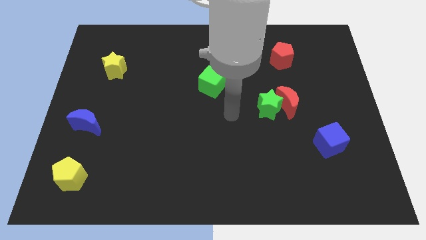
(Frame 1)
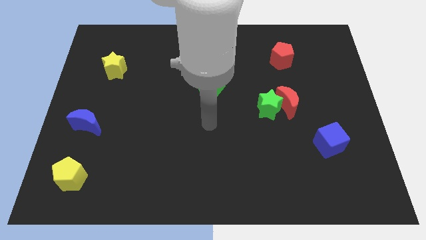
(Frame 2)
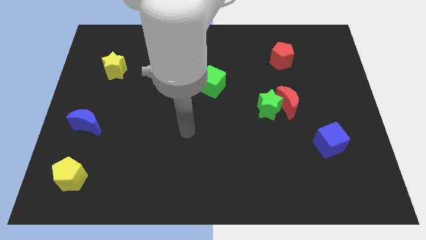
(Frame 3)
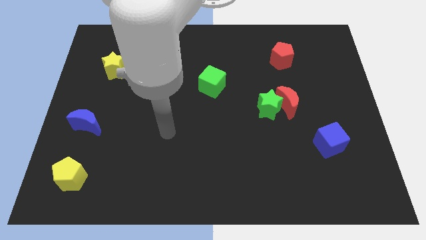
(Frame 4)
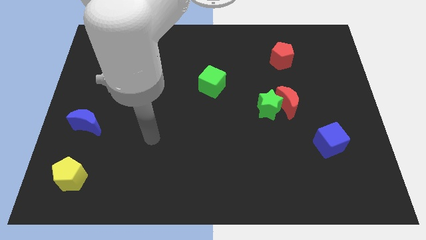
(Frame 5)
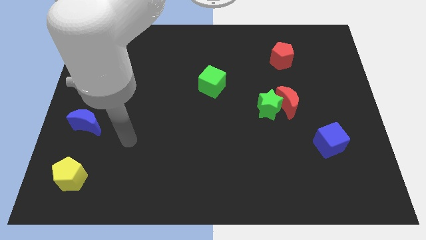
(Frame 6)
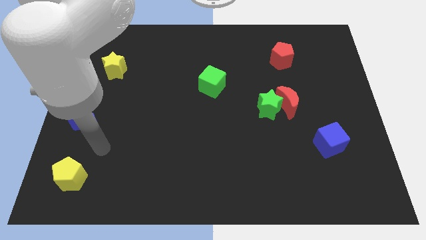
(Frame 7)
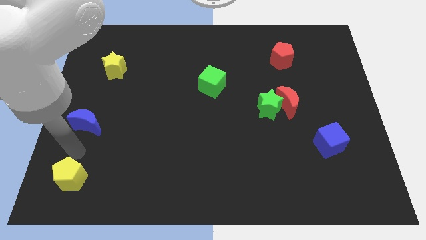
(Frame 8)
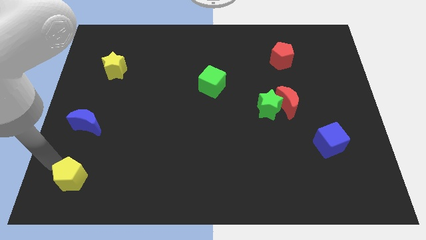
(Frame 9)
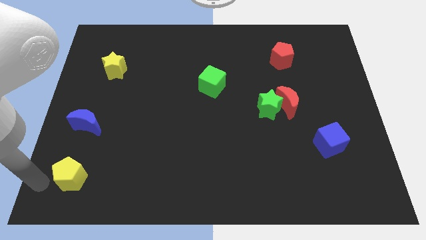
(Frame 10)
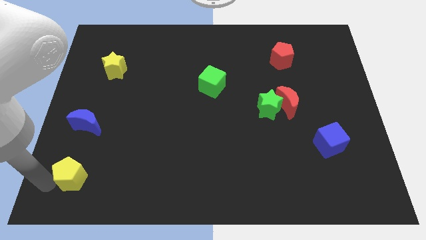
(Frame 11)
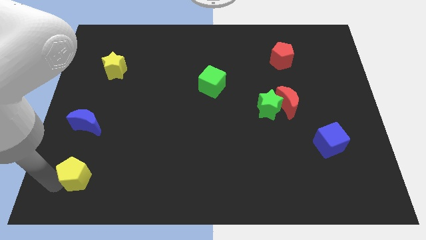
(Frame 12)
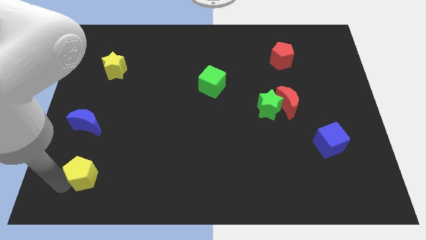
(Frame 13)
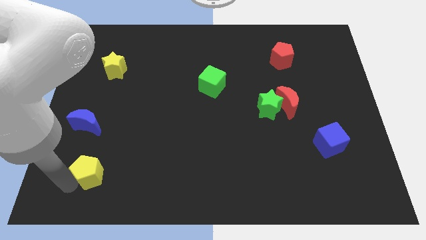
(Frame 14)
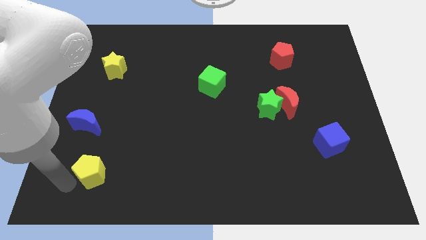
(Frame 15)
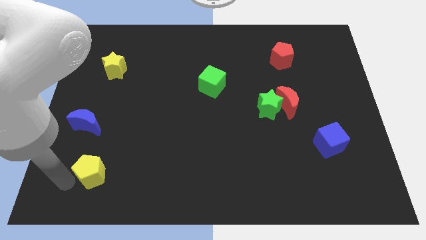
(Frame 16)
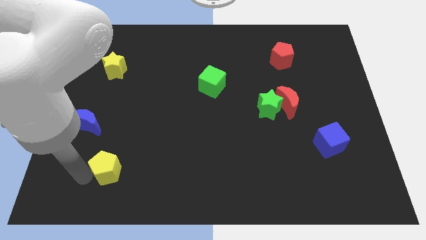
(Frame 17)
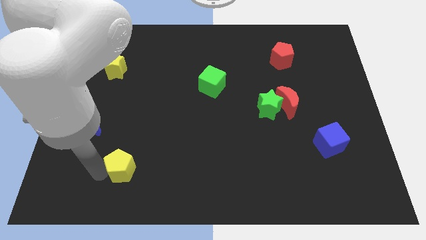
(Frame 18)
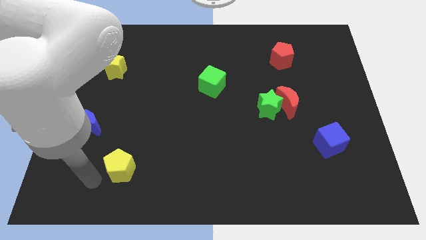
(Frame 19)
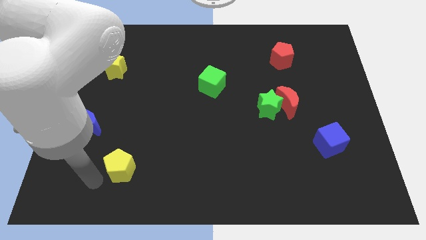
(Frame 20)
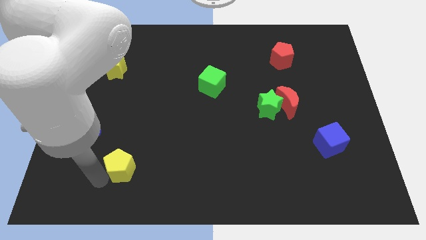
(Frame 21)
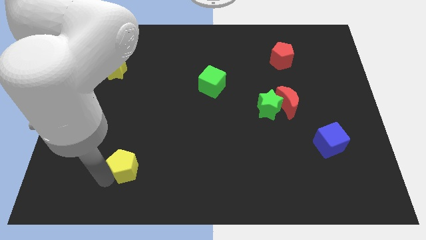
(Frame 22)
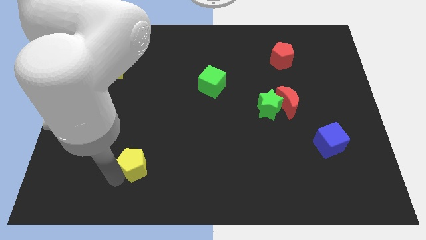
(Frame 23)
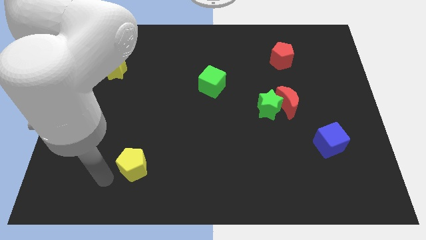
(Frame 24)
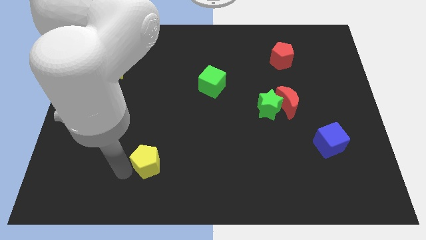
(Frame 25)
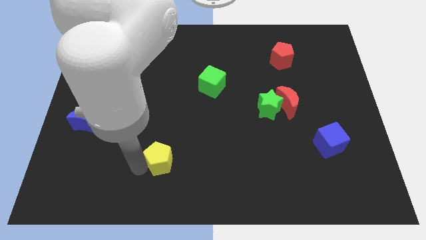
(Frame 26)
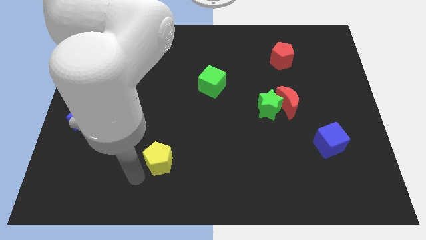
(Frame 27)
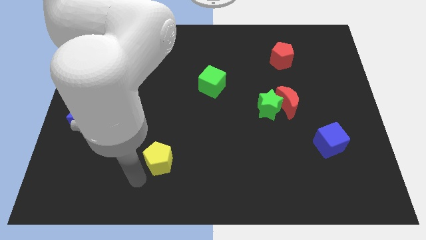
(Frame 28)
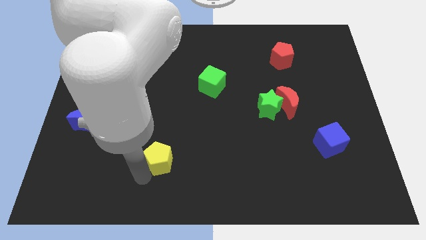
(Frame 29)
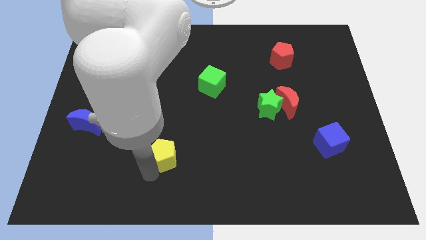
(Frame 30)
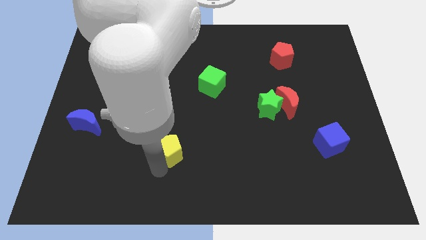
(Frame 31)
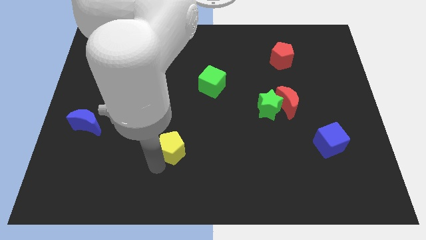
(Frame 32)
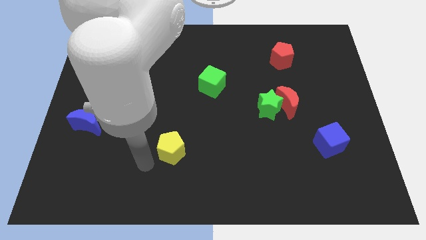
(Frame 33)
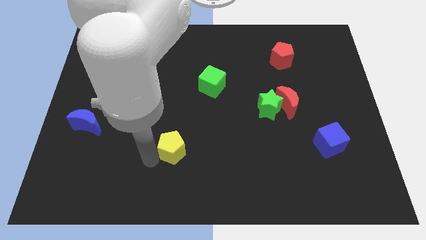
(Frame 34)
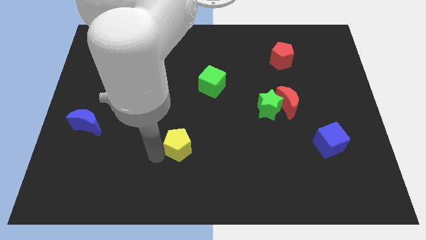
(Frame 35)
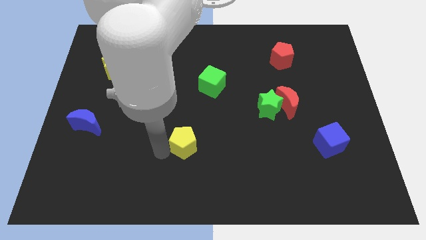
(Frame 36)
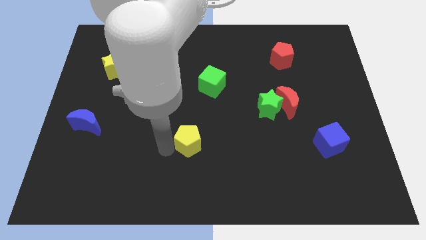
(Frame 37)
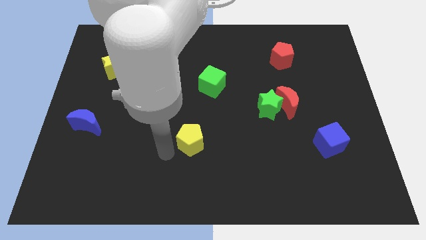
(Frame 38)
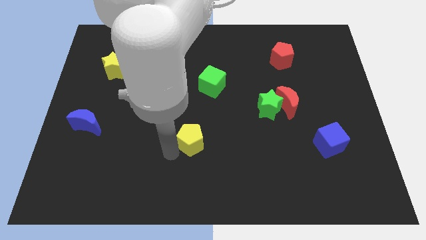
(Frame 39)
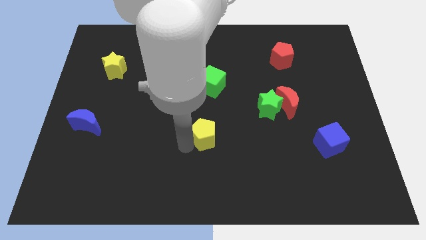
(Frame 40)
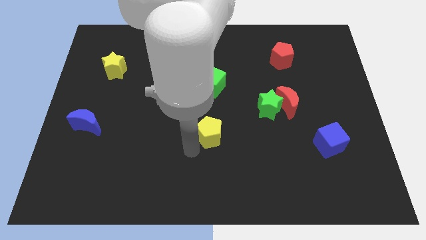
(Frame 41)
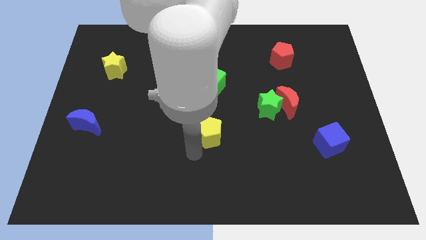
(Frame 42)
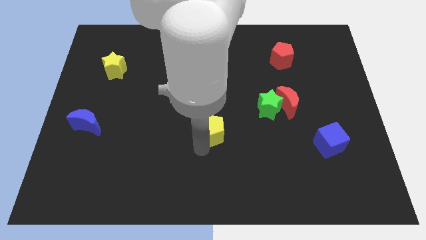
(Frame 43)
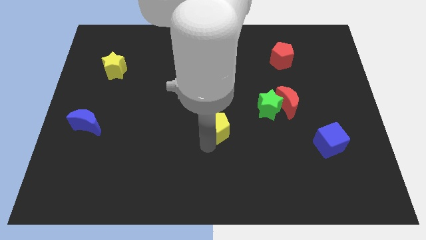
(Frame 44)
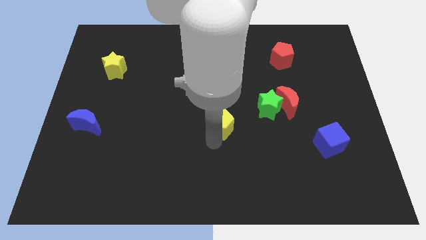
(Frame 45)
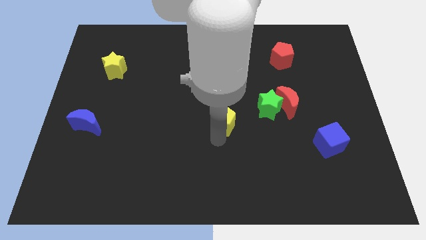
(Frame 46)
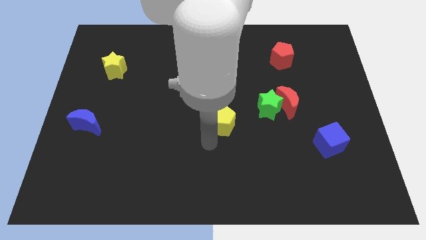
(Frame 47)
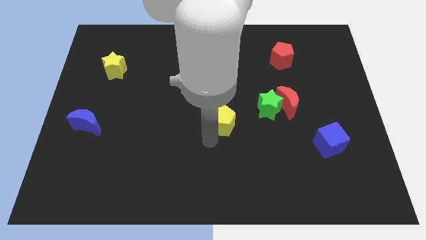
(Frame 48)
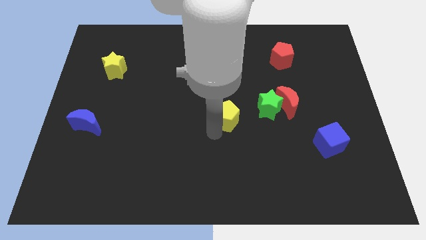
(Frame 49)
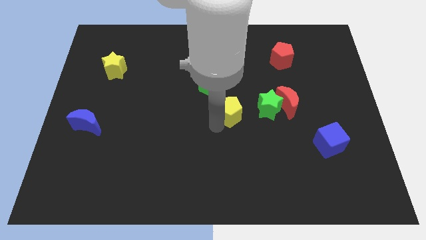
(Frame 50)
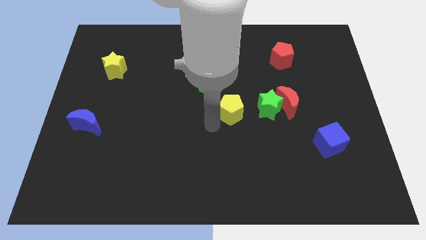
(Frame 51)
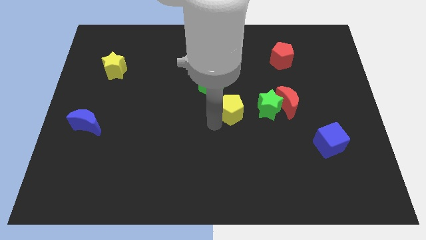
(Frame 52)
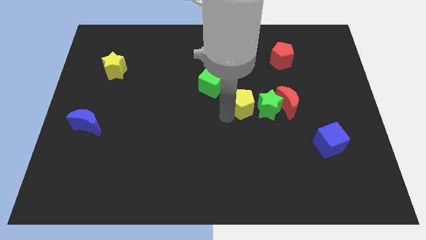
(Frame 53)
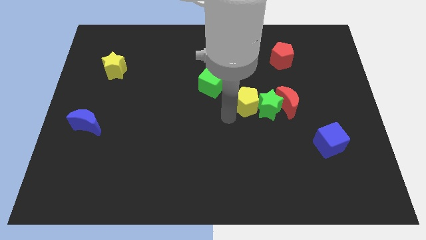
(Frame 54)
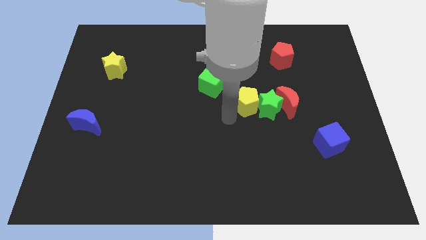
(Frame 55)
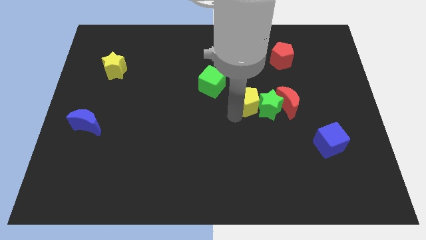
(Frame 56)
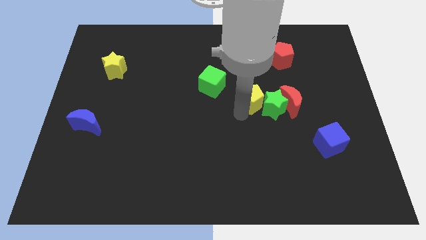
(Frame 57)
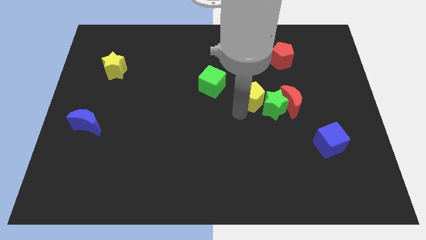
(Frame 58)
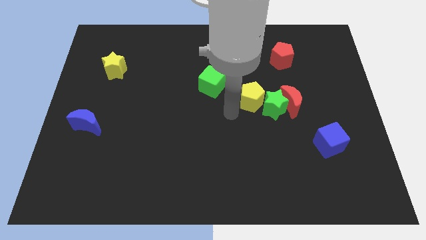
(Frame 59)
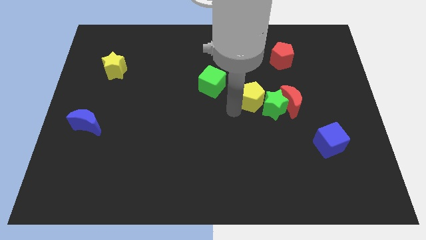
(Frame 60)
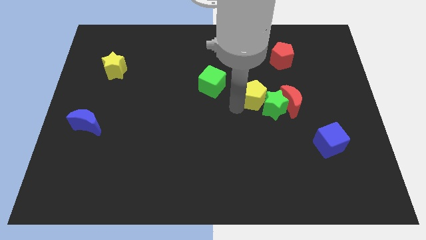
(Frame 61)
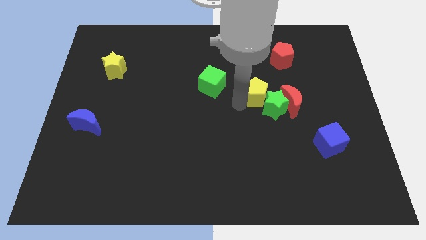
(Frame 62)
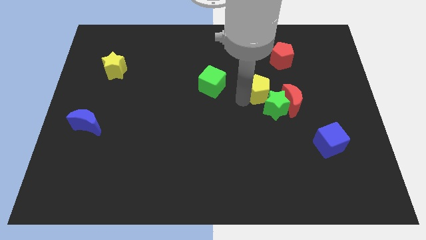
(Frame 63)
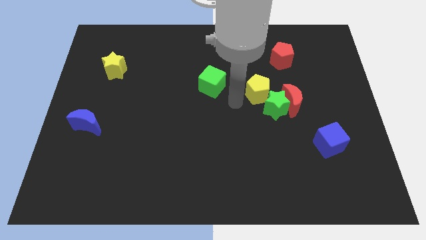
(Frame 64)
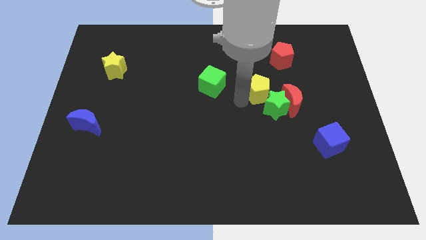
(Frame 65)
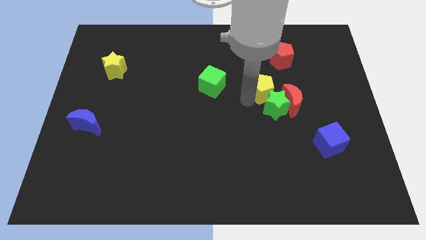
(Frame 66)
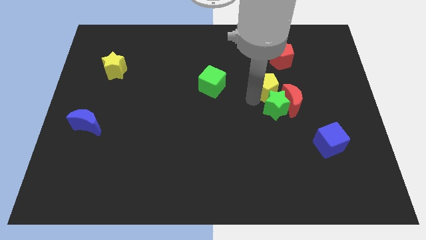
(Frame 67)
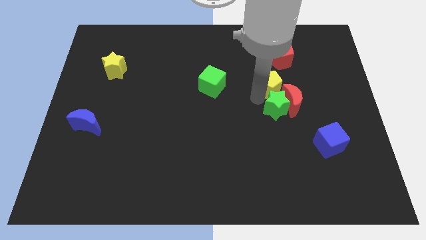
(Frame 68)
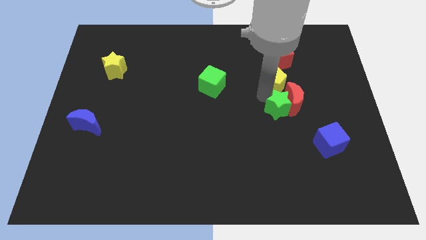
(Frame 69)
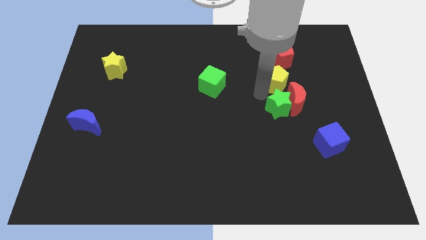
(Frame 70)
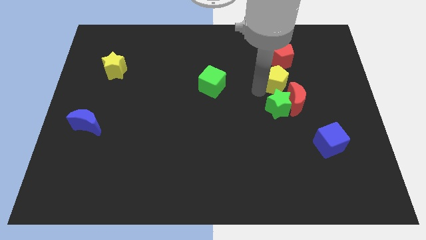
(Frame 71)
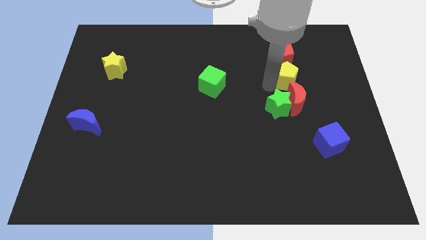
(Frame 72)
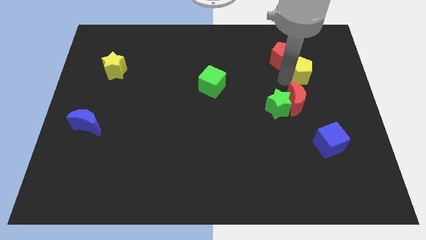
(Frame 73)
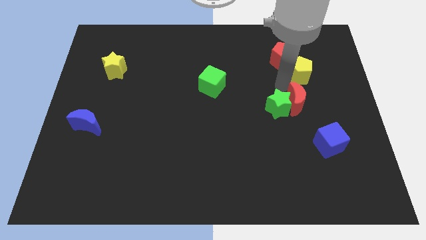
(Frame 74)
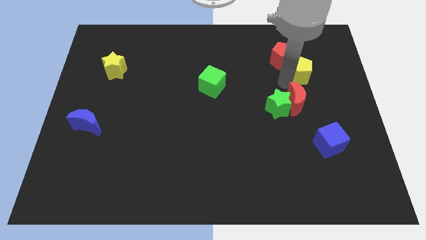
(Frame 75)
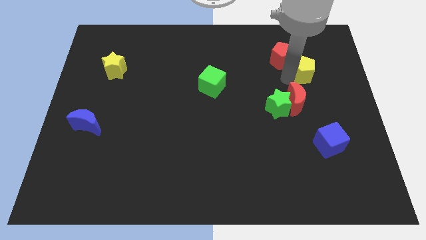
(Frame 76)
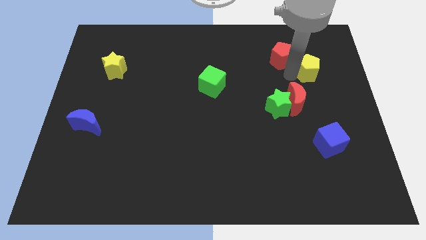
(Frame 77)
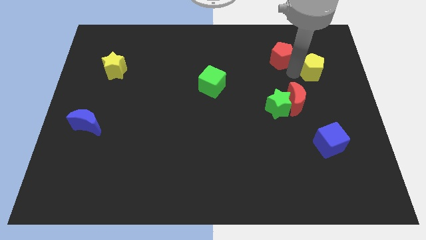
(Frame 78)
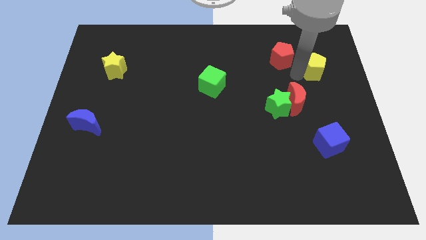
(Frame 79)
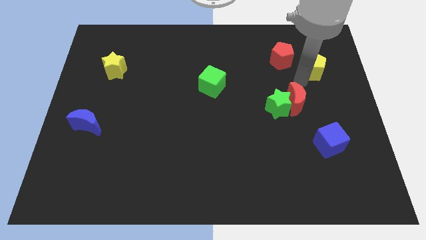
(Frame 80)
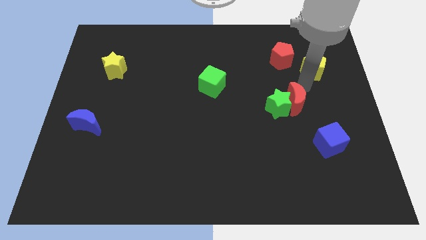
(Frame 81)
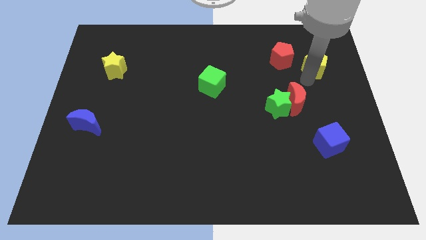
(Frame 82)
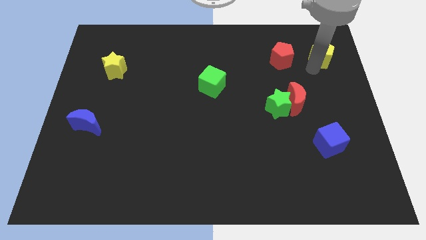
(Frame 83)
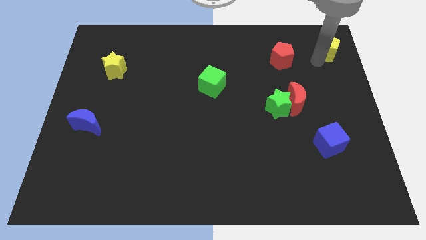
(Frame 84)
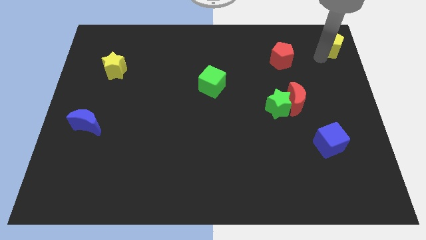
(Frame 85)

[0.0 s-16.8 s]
put the yellow pentagon to the top right corner
